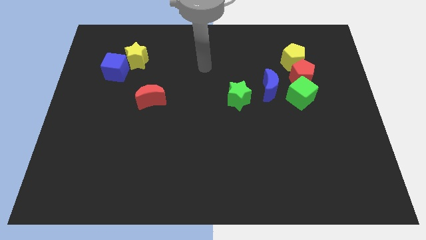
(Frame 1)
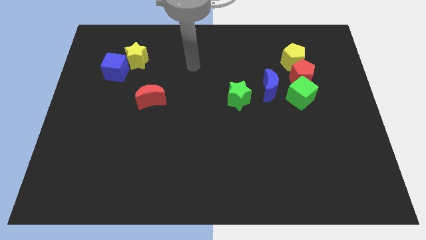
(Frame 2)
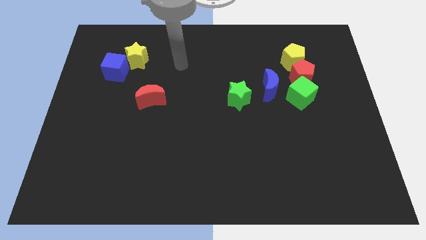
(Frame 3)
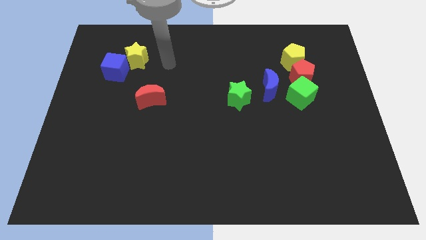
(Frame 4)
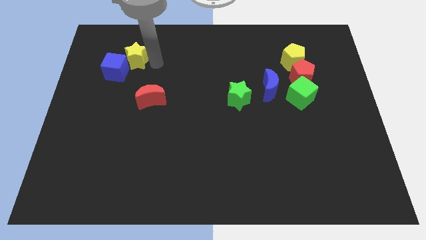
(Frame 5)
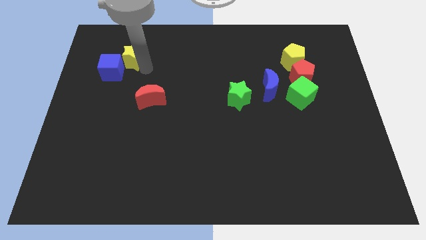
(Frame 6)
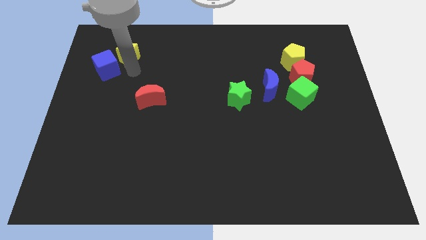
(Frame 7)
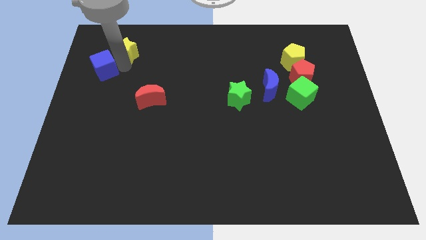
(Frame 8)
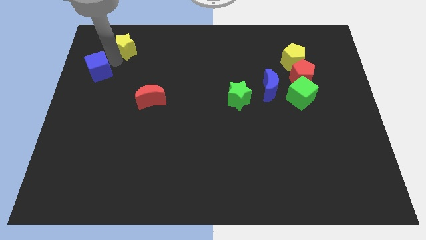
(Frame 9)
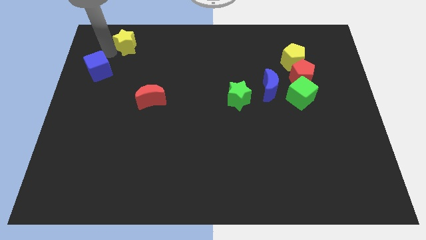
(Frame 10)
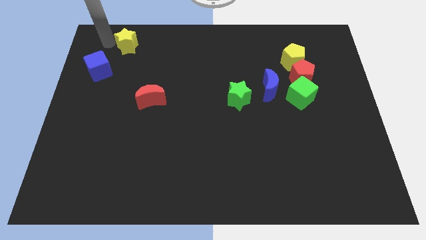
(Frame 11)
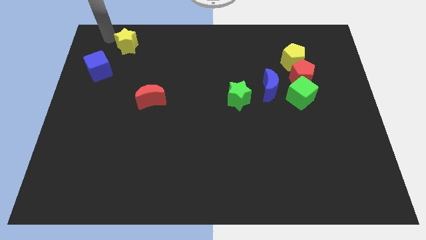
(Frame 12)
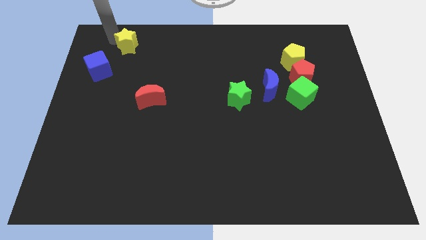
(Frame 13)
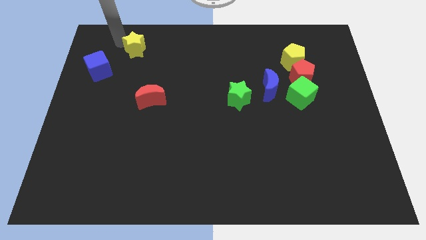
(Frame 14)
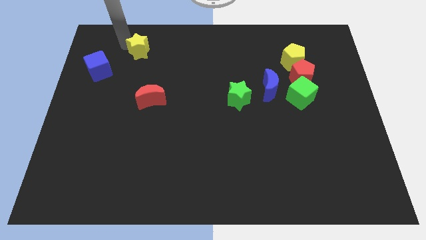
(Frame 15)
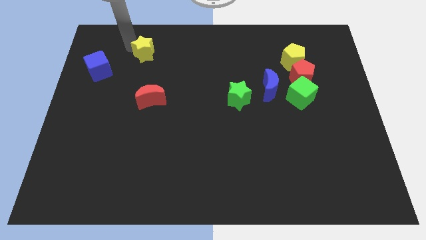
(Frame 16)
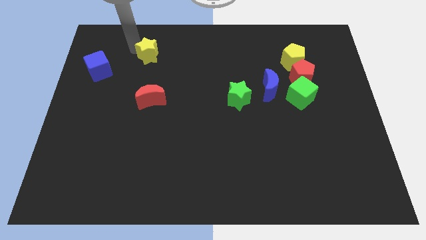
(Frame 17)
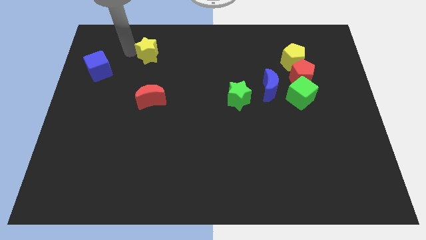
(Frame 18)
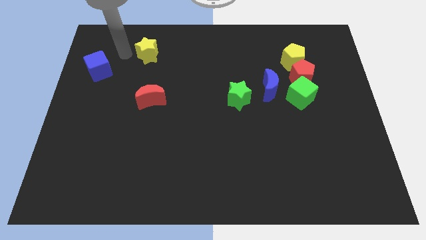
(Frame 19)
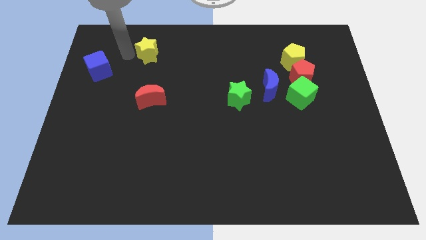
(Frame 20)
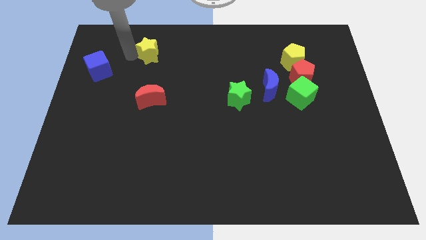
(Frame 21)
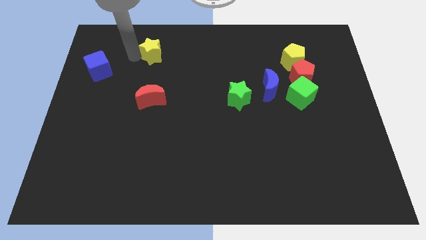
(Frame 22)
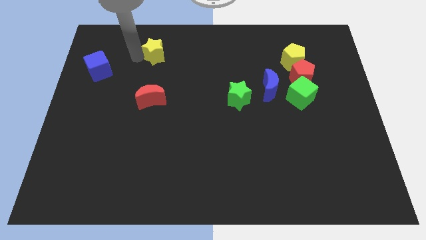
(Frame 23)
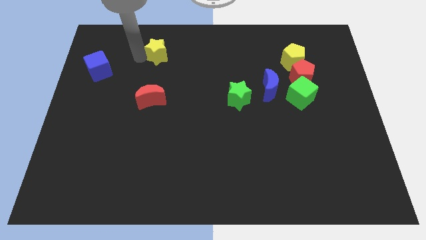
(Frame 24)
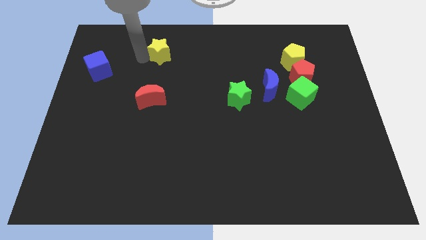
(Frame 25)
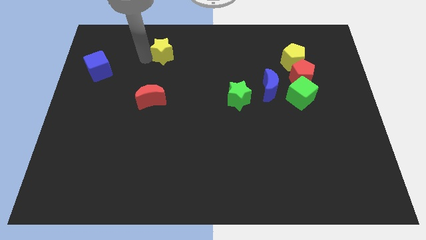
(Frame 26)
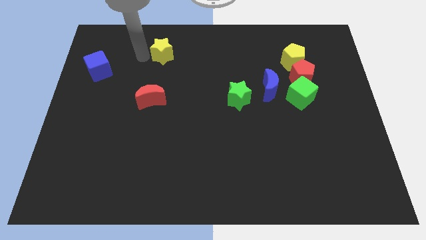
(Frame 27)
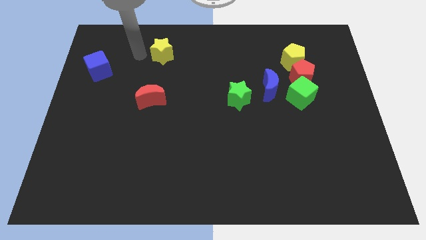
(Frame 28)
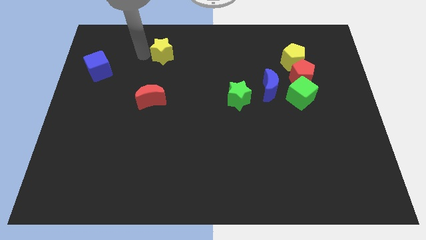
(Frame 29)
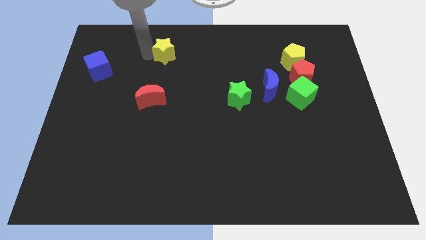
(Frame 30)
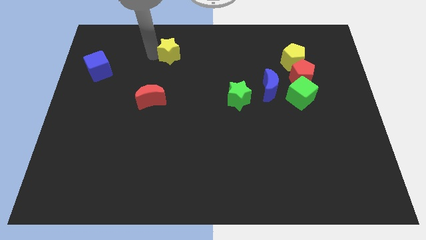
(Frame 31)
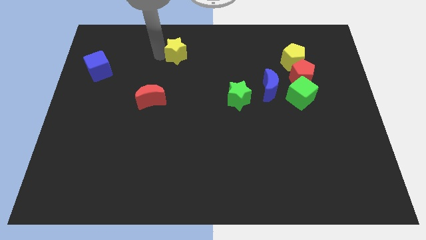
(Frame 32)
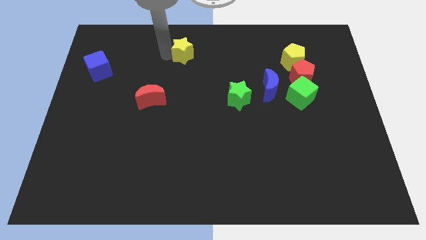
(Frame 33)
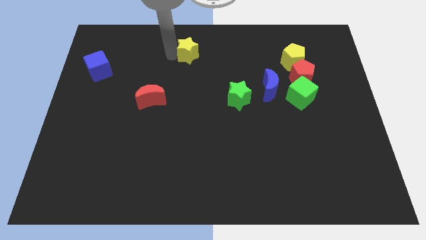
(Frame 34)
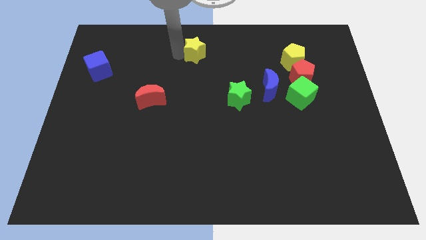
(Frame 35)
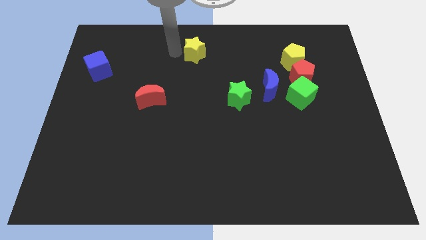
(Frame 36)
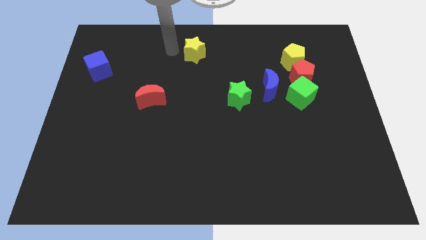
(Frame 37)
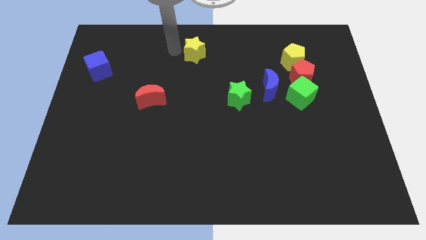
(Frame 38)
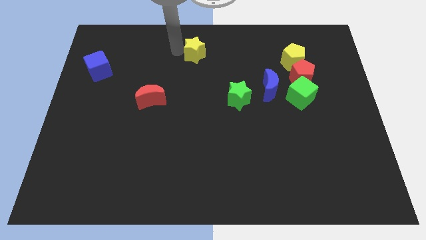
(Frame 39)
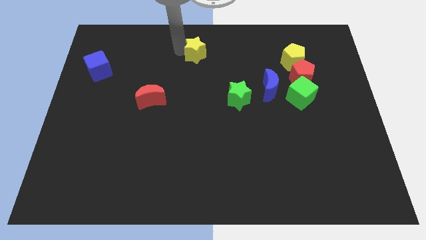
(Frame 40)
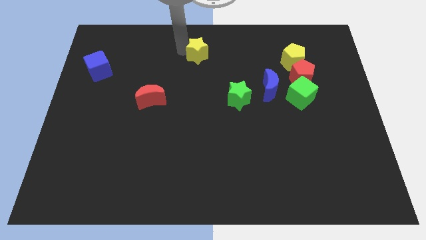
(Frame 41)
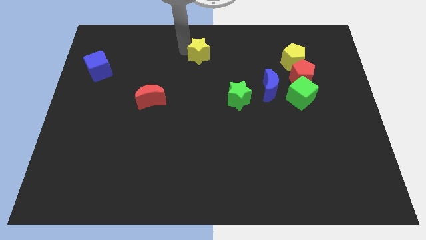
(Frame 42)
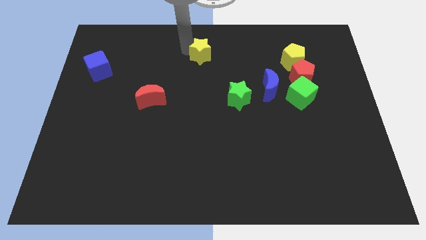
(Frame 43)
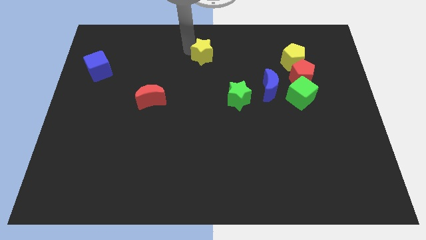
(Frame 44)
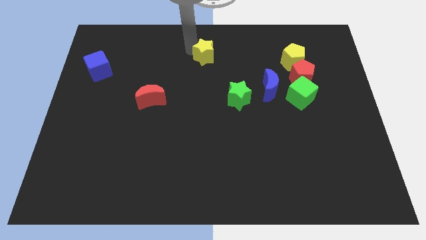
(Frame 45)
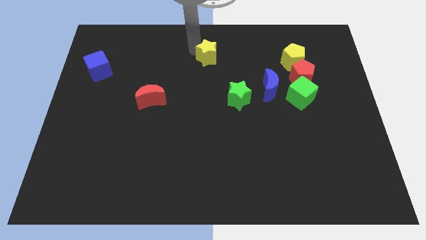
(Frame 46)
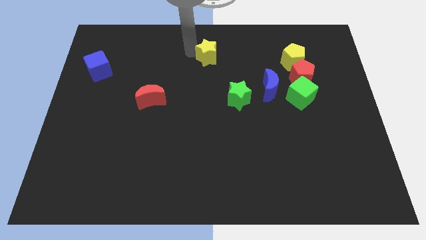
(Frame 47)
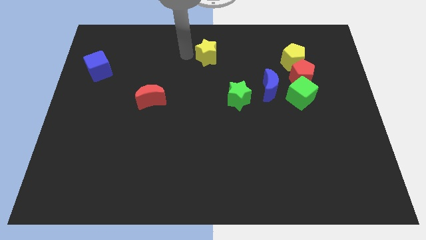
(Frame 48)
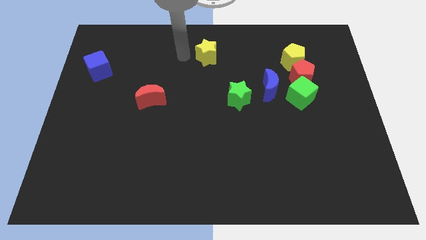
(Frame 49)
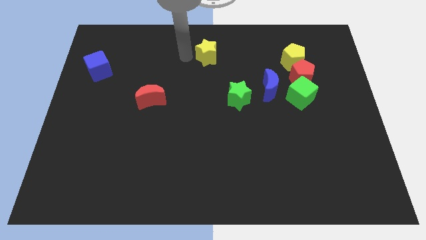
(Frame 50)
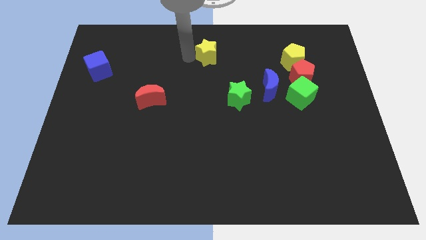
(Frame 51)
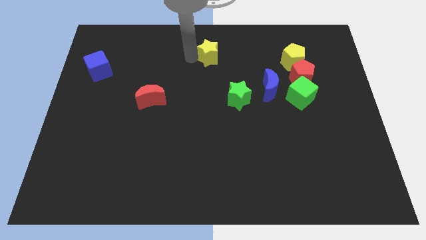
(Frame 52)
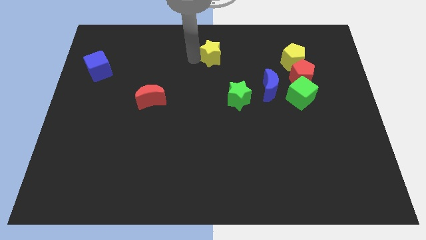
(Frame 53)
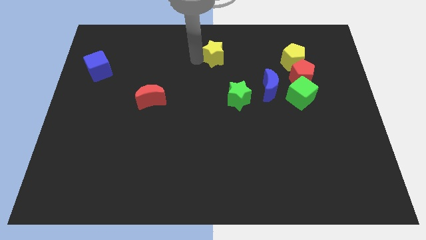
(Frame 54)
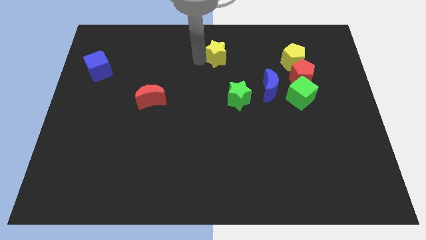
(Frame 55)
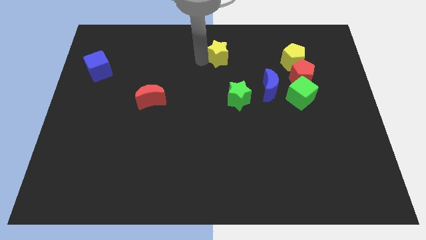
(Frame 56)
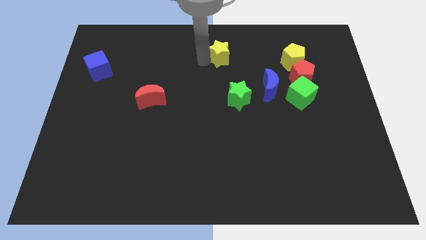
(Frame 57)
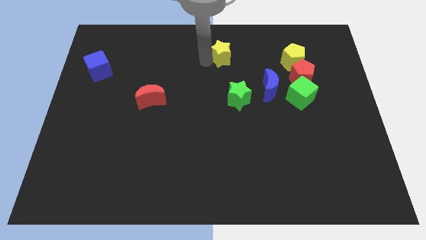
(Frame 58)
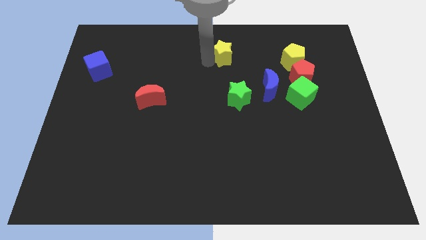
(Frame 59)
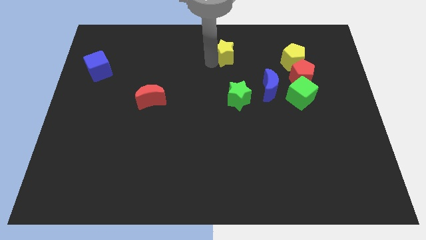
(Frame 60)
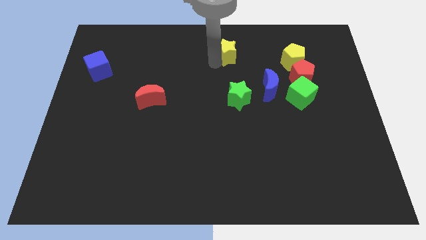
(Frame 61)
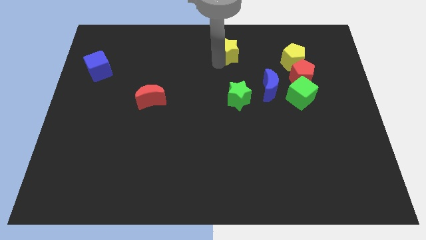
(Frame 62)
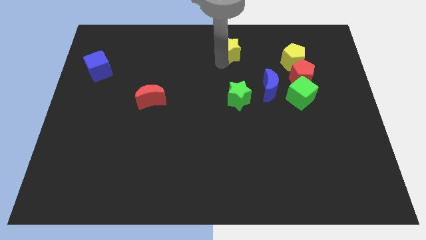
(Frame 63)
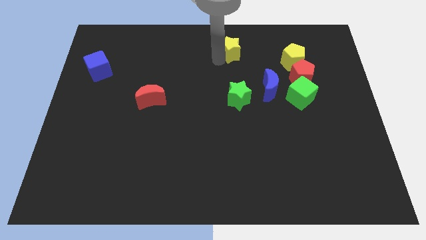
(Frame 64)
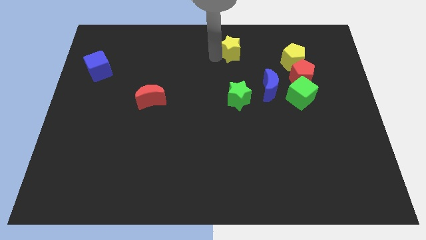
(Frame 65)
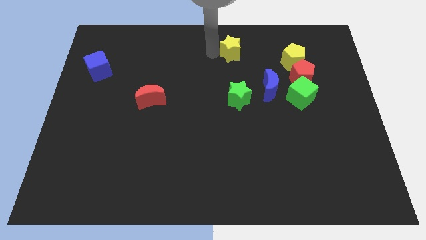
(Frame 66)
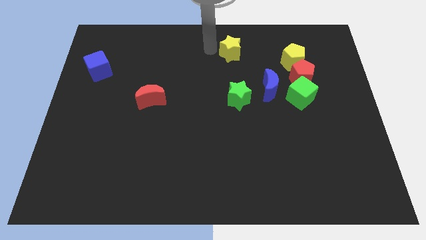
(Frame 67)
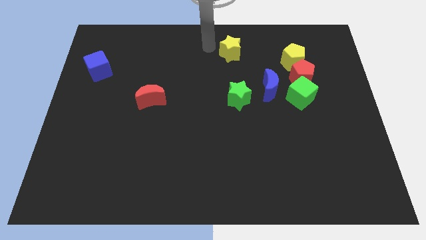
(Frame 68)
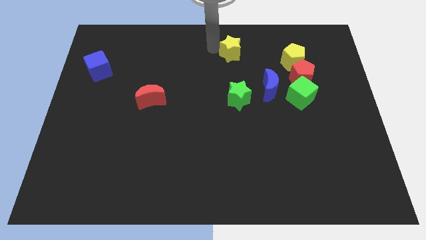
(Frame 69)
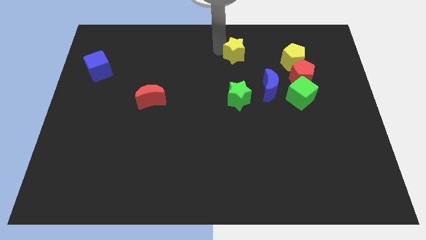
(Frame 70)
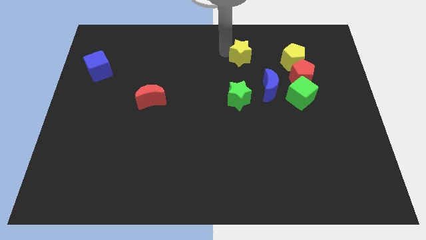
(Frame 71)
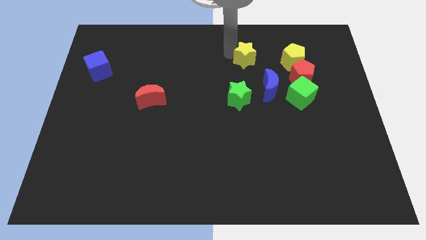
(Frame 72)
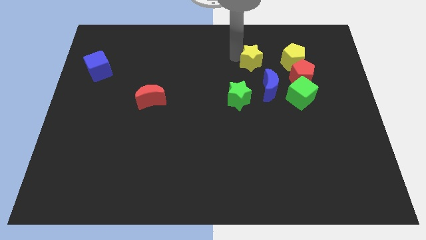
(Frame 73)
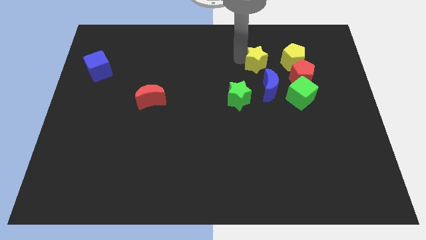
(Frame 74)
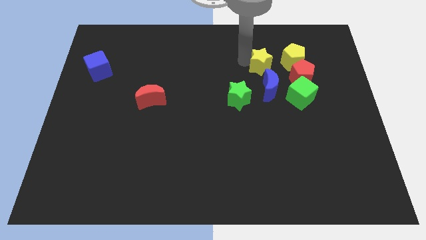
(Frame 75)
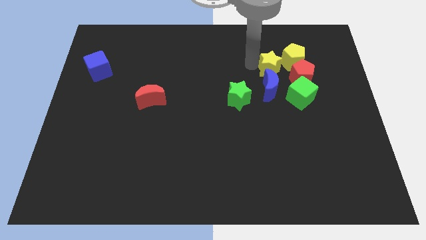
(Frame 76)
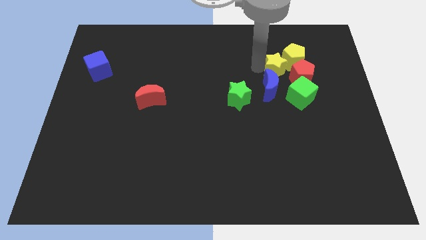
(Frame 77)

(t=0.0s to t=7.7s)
put the yellow star towards the yellow pentagon
